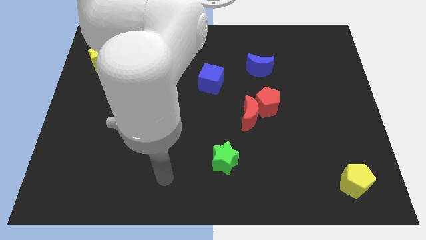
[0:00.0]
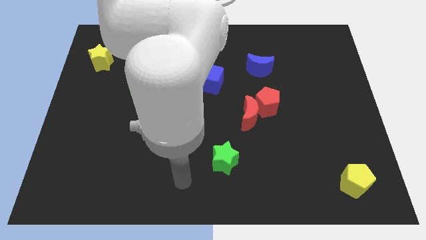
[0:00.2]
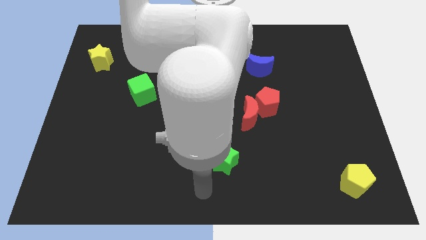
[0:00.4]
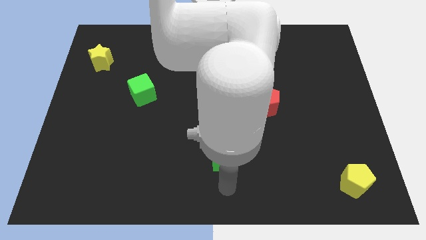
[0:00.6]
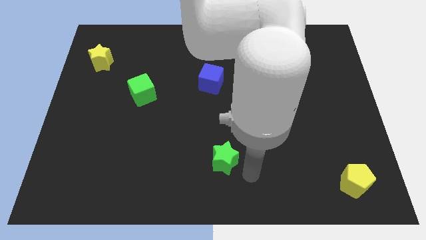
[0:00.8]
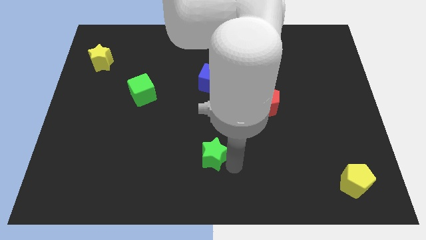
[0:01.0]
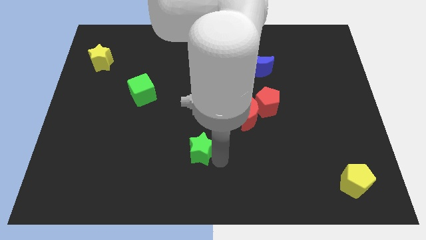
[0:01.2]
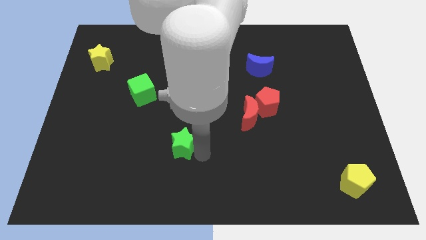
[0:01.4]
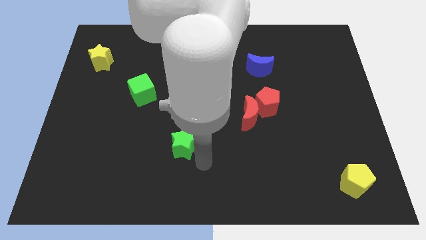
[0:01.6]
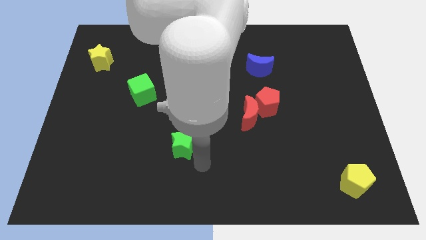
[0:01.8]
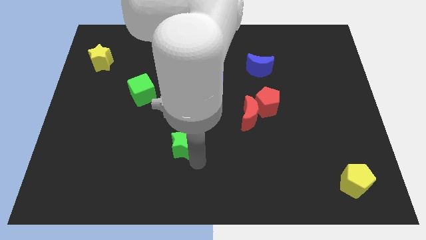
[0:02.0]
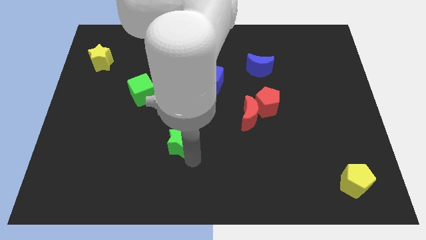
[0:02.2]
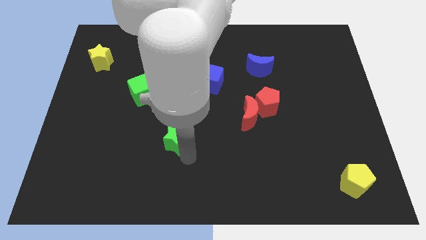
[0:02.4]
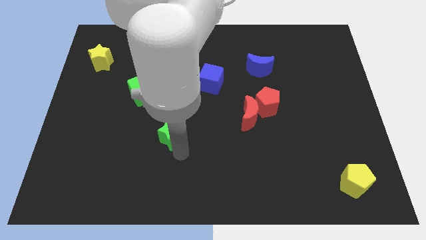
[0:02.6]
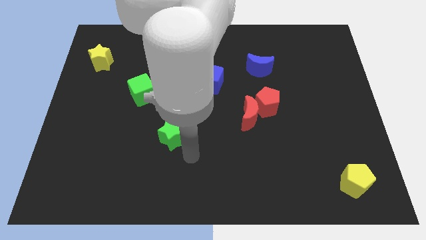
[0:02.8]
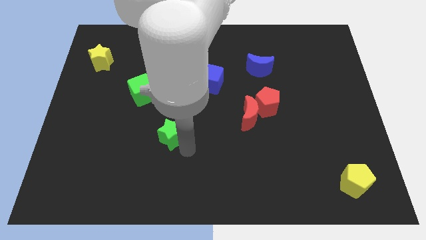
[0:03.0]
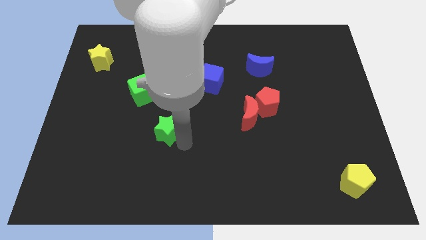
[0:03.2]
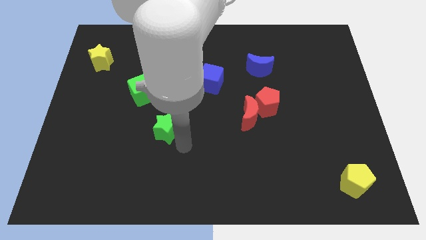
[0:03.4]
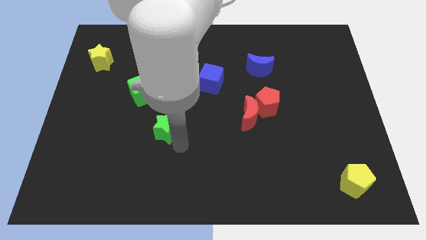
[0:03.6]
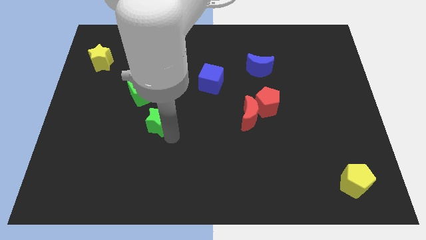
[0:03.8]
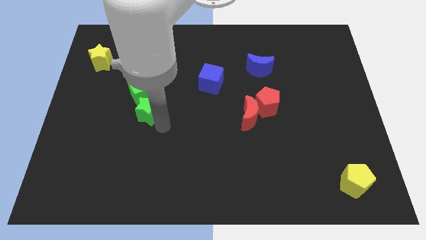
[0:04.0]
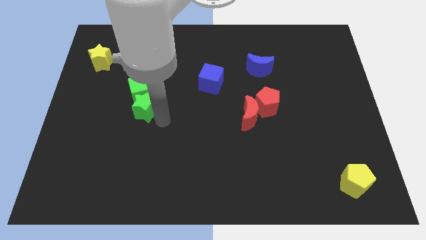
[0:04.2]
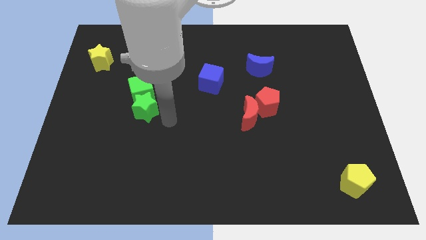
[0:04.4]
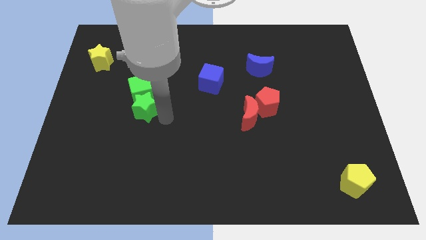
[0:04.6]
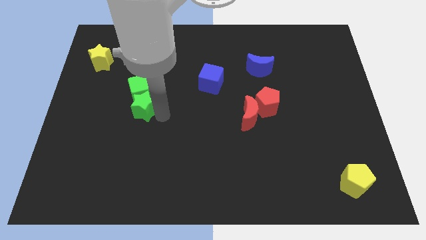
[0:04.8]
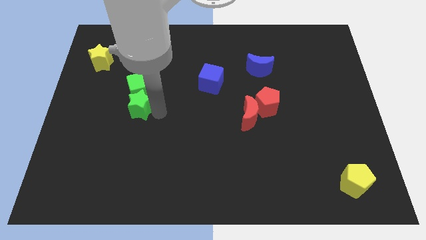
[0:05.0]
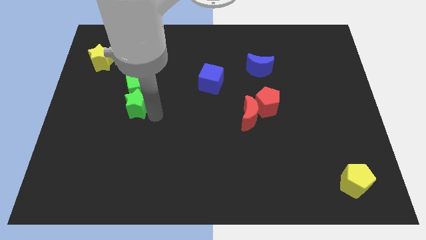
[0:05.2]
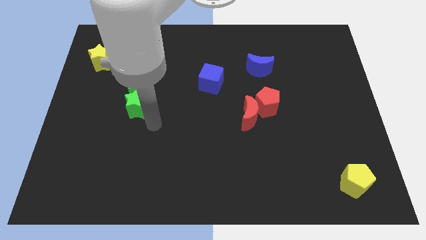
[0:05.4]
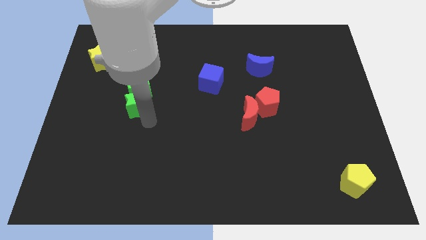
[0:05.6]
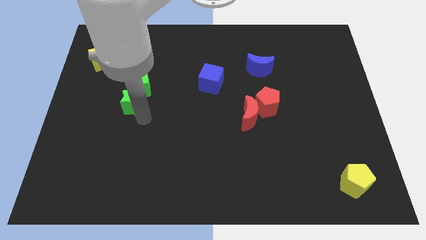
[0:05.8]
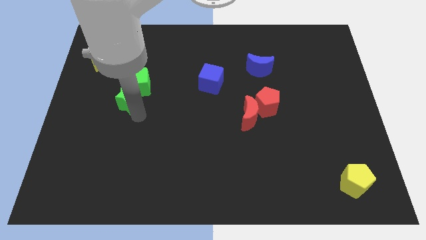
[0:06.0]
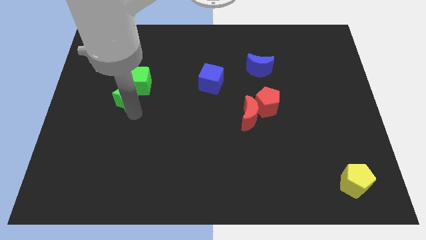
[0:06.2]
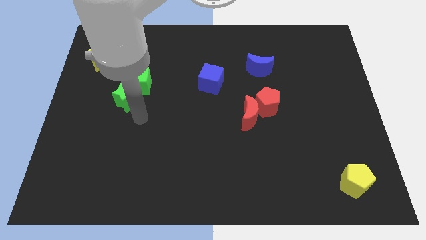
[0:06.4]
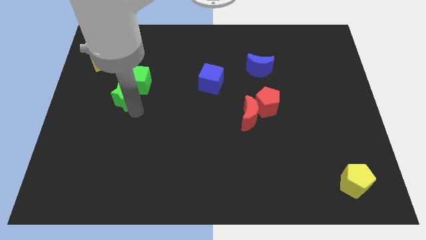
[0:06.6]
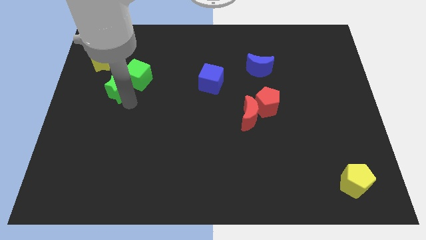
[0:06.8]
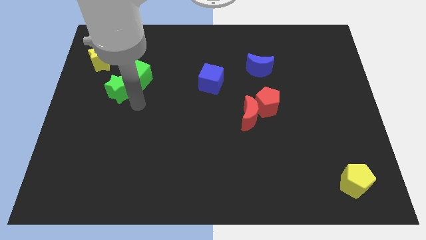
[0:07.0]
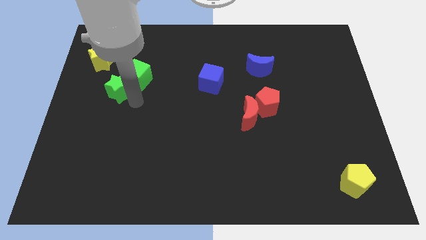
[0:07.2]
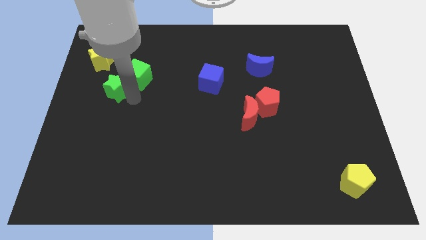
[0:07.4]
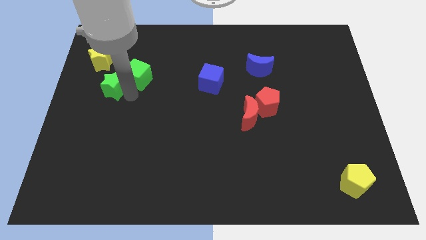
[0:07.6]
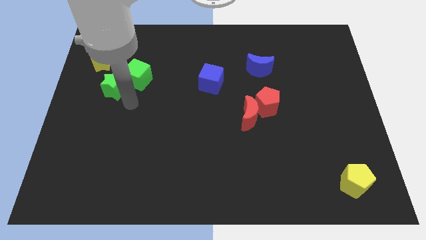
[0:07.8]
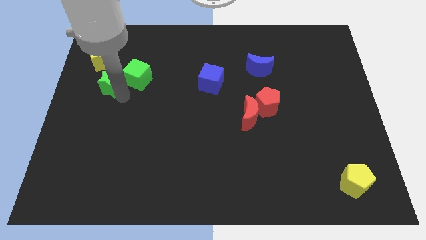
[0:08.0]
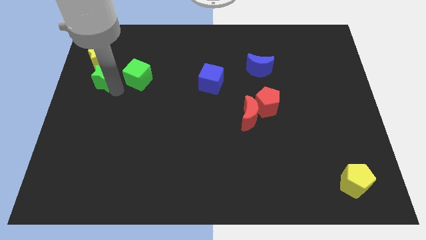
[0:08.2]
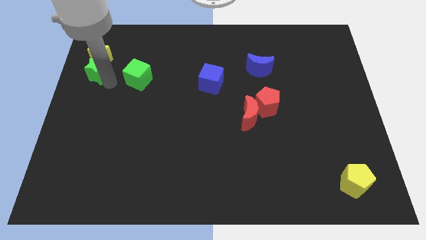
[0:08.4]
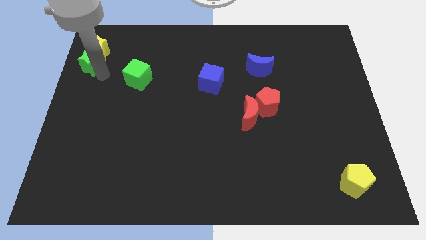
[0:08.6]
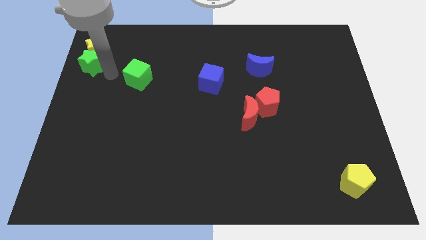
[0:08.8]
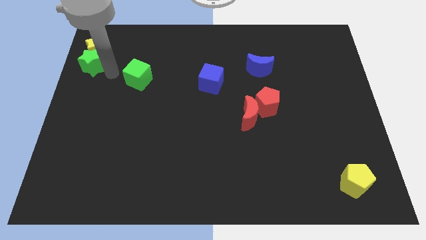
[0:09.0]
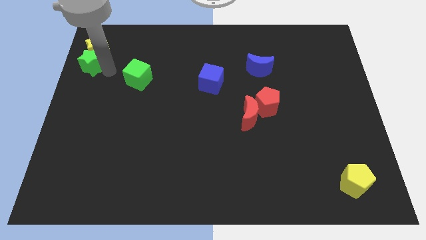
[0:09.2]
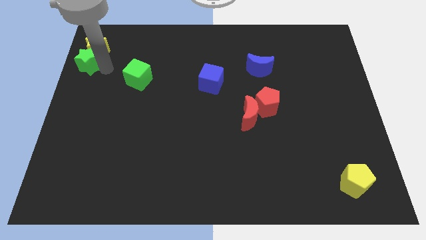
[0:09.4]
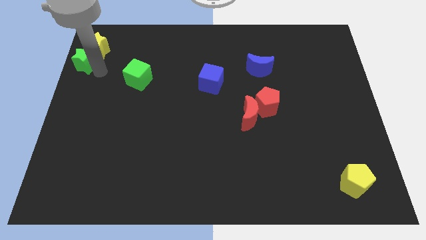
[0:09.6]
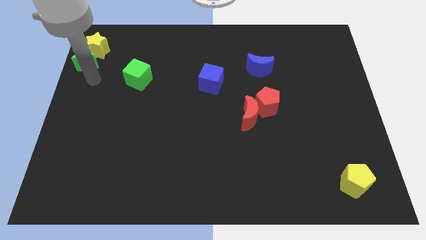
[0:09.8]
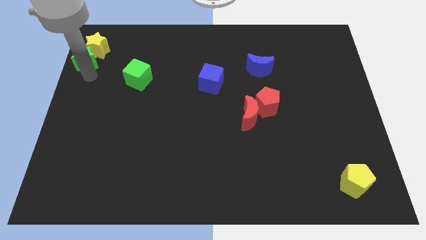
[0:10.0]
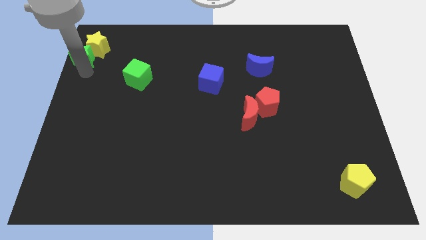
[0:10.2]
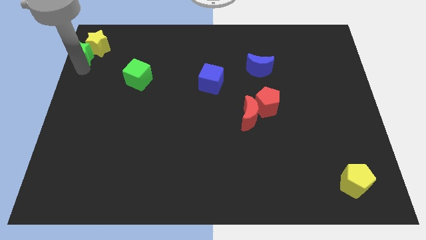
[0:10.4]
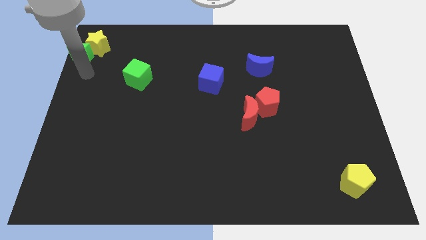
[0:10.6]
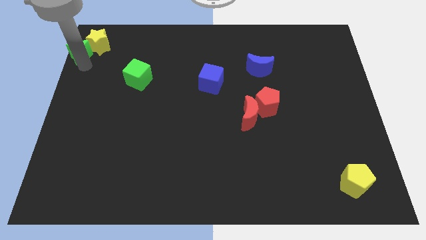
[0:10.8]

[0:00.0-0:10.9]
push the green star to the upper left corner
